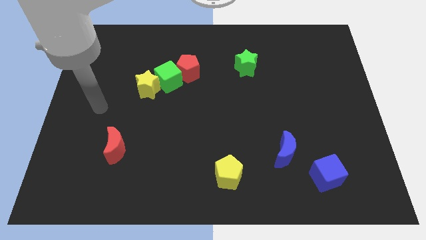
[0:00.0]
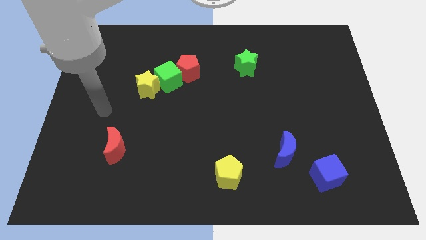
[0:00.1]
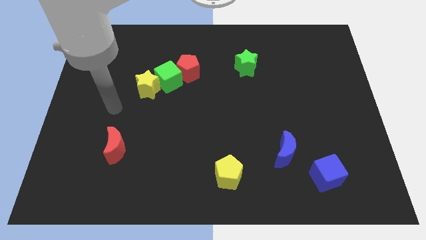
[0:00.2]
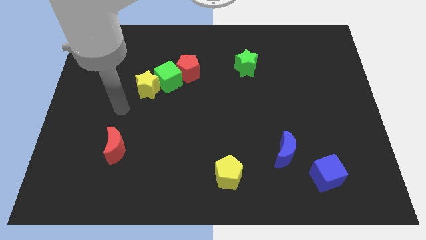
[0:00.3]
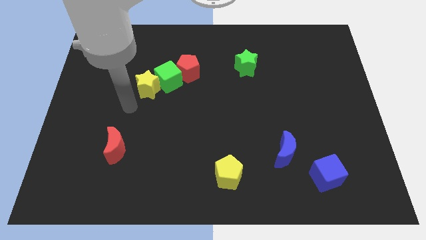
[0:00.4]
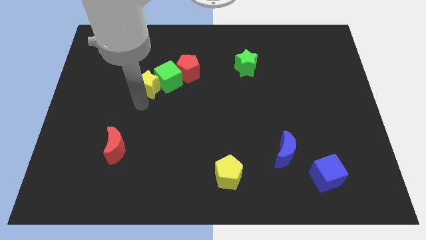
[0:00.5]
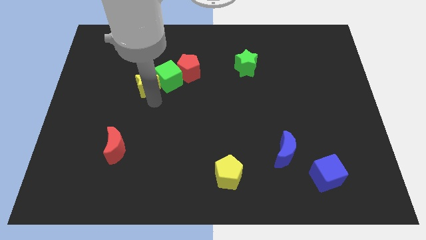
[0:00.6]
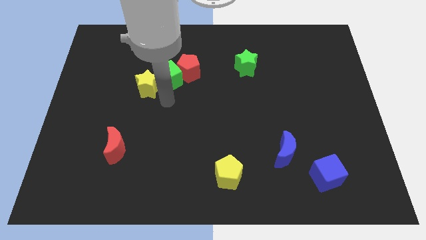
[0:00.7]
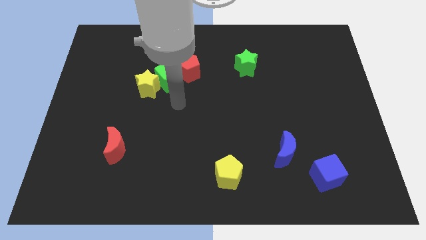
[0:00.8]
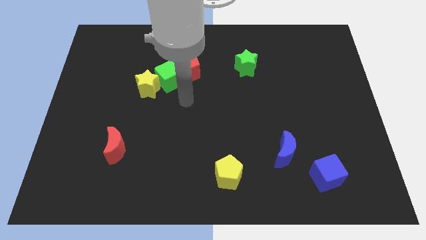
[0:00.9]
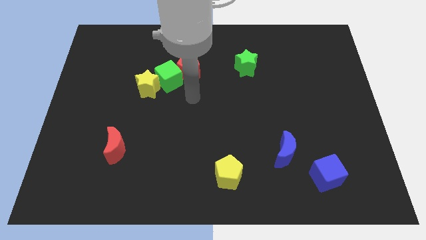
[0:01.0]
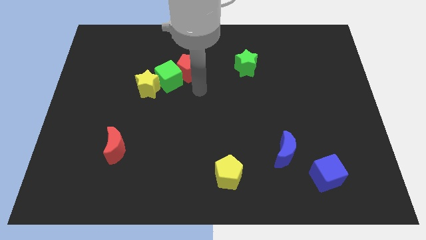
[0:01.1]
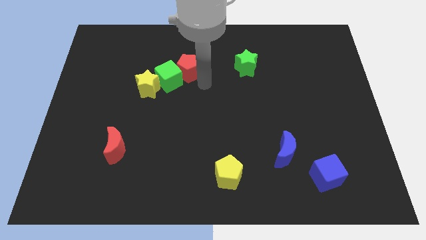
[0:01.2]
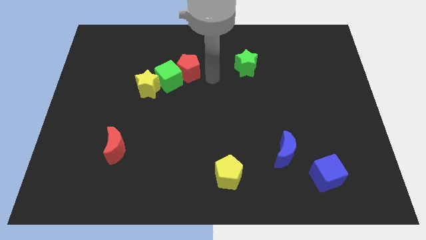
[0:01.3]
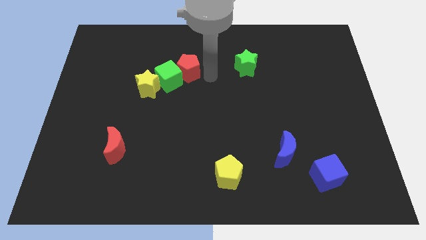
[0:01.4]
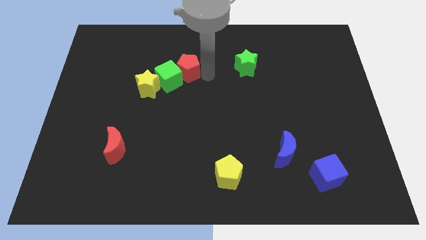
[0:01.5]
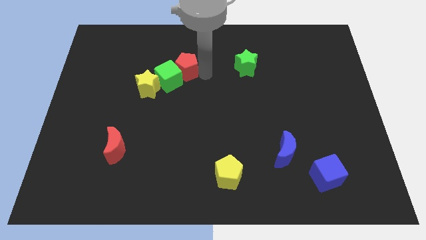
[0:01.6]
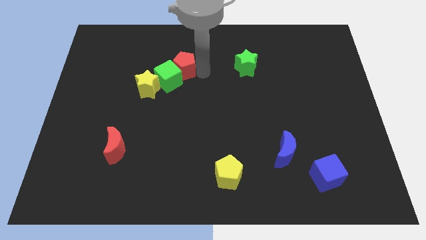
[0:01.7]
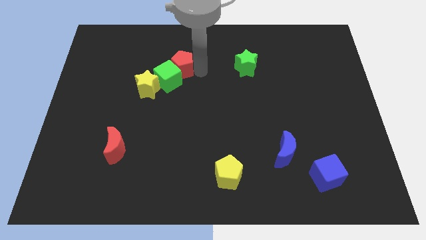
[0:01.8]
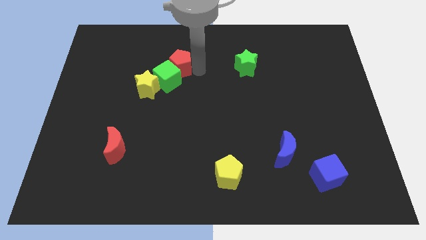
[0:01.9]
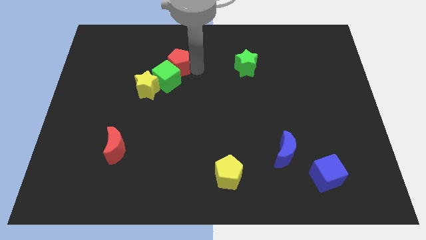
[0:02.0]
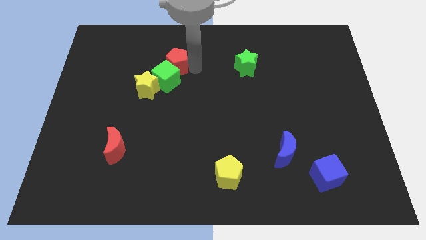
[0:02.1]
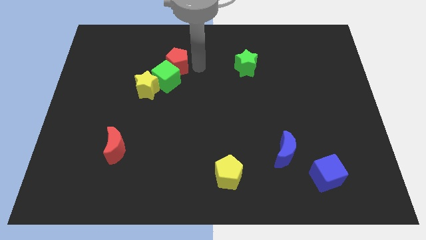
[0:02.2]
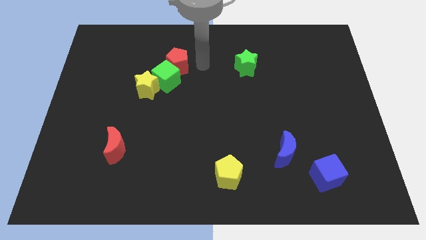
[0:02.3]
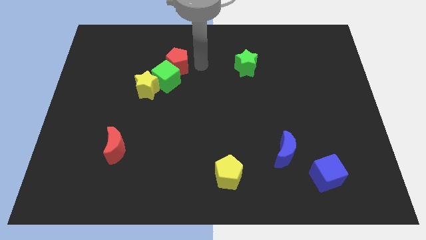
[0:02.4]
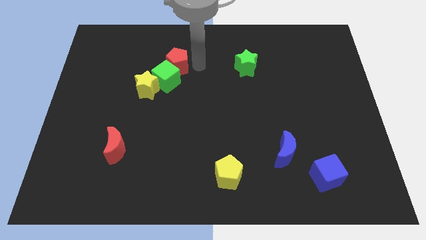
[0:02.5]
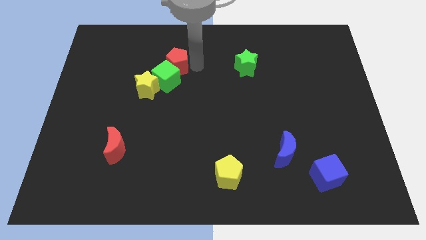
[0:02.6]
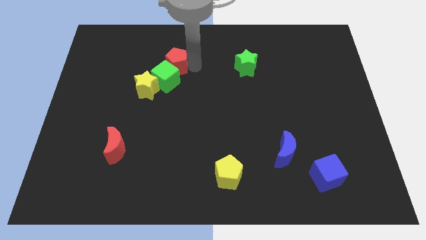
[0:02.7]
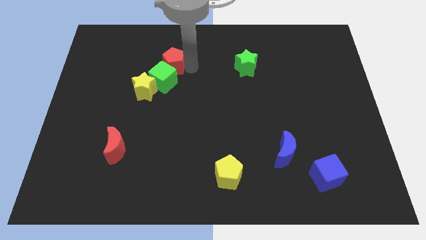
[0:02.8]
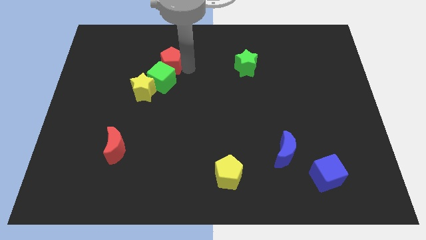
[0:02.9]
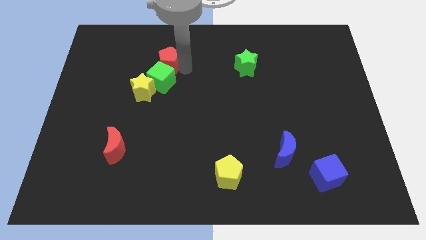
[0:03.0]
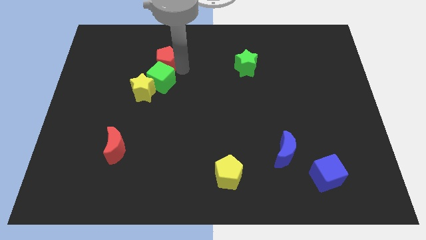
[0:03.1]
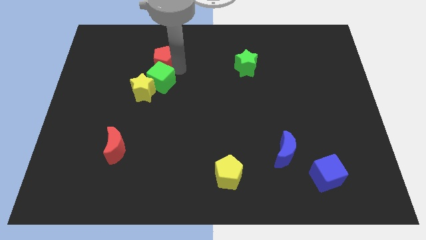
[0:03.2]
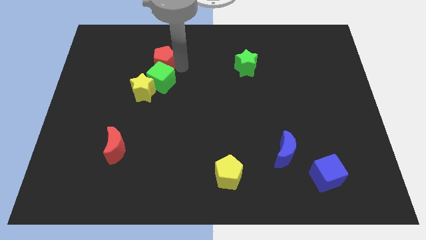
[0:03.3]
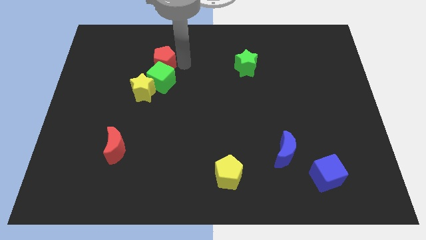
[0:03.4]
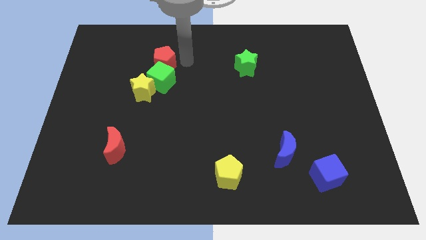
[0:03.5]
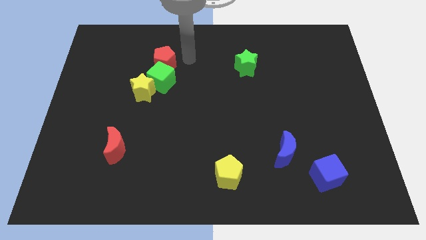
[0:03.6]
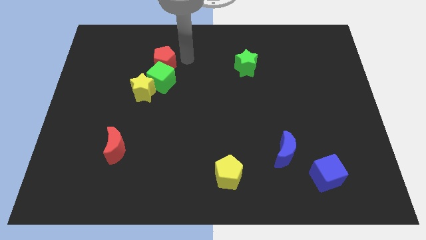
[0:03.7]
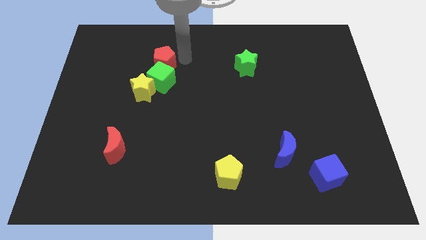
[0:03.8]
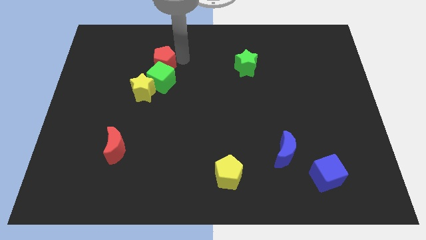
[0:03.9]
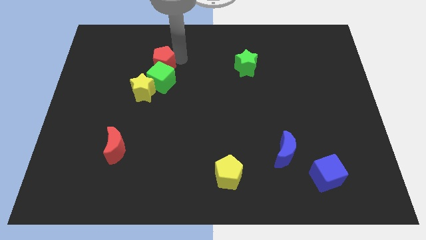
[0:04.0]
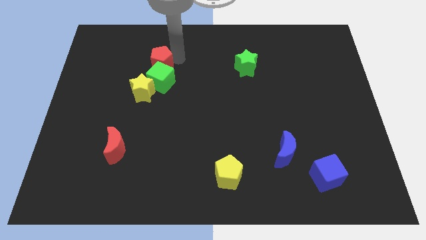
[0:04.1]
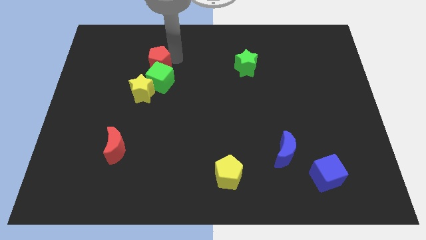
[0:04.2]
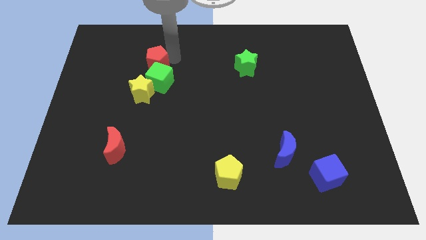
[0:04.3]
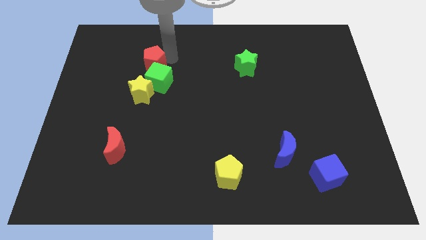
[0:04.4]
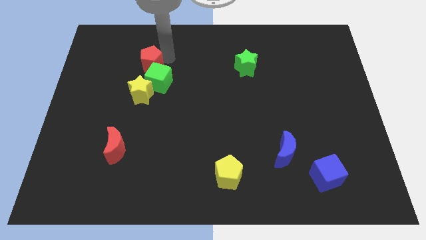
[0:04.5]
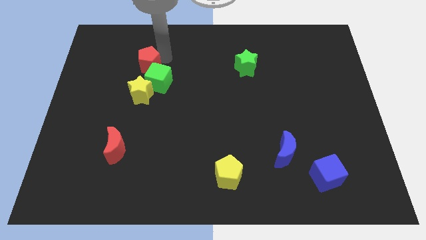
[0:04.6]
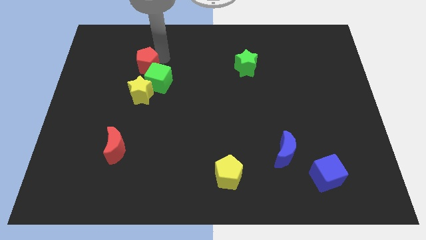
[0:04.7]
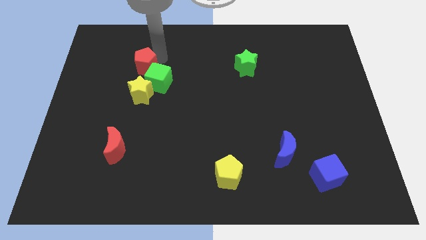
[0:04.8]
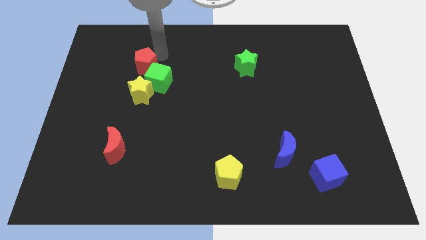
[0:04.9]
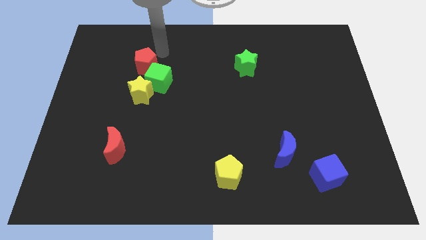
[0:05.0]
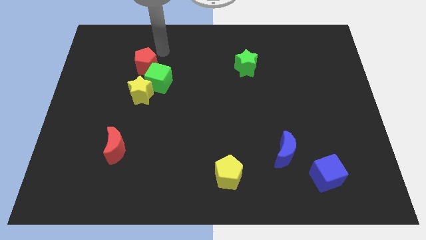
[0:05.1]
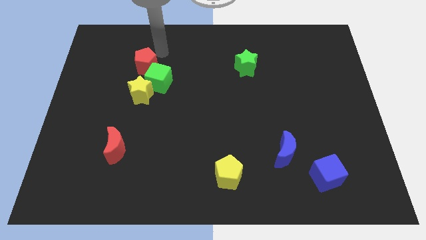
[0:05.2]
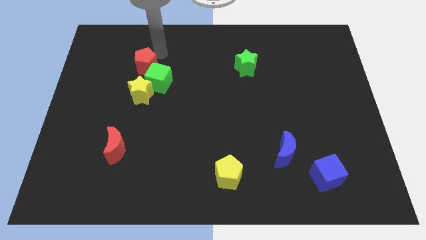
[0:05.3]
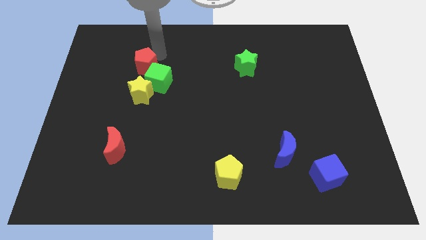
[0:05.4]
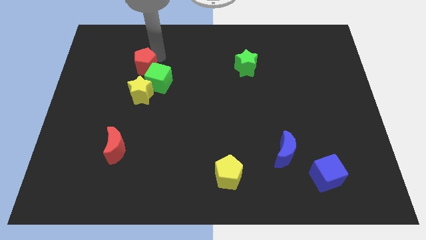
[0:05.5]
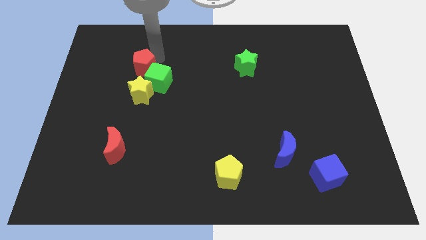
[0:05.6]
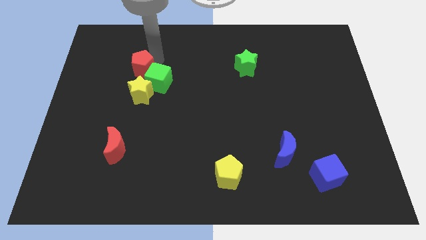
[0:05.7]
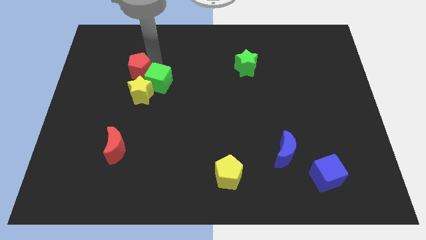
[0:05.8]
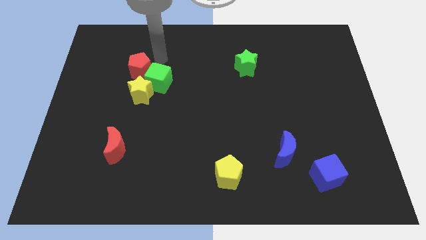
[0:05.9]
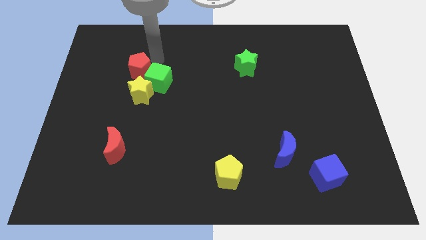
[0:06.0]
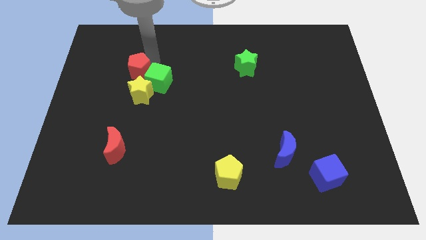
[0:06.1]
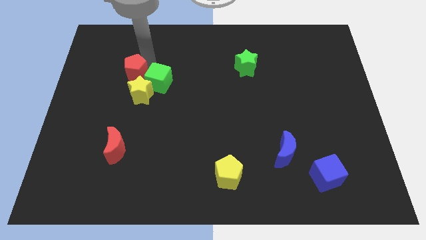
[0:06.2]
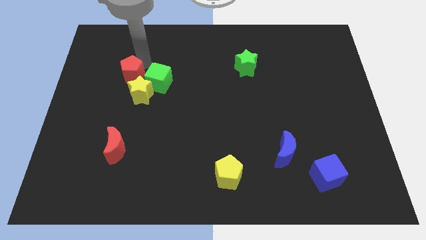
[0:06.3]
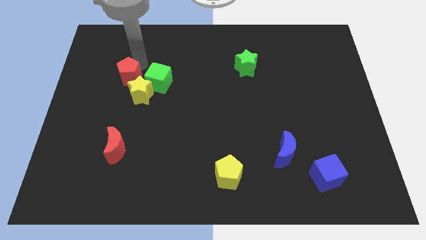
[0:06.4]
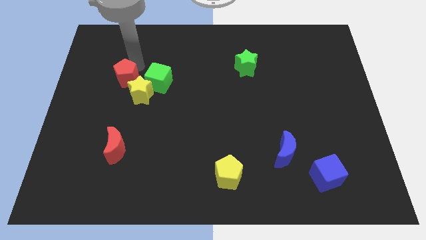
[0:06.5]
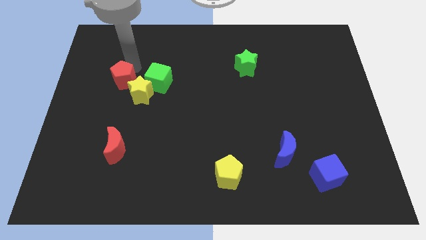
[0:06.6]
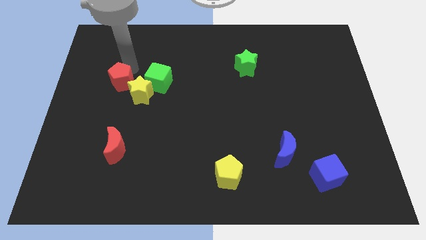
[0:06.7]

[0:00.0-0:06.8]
move the red pentagon just left of the yellow star

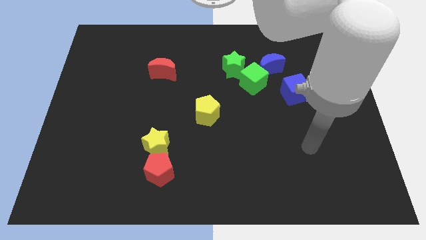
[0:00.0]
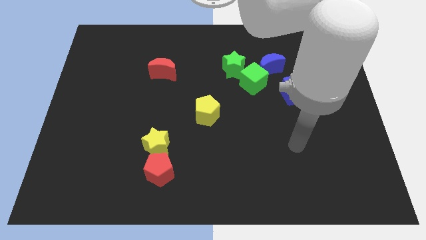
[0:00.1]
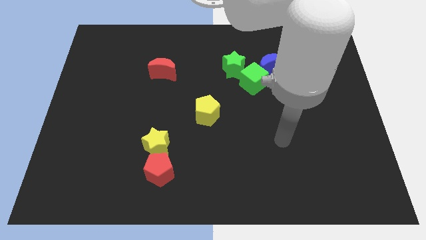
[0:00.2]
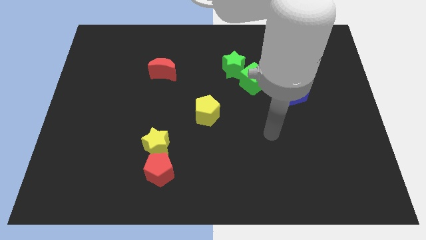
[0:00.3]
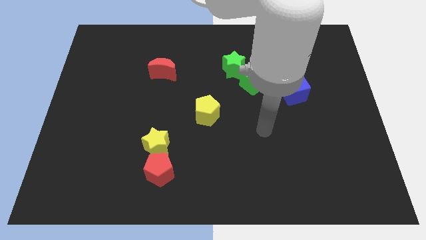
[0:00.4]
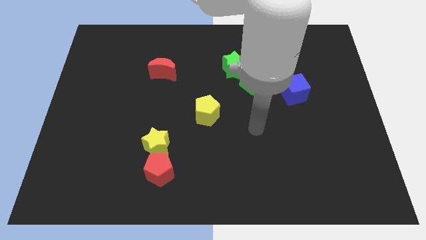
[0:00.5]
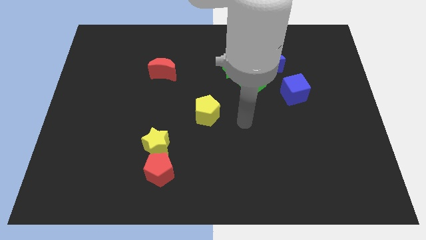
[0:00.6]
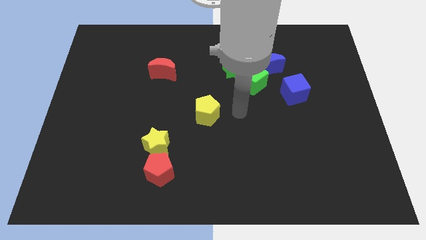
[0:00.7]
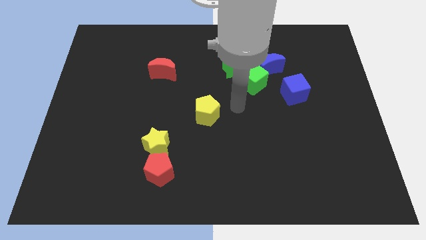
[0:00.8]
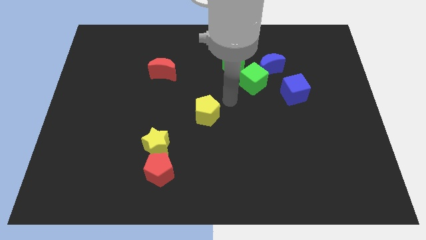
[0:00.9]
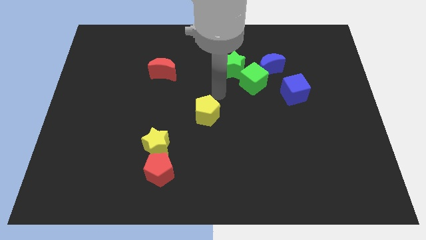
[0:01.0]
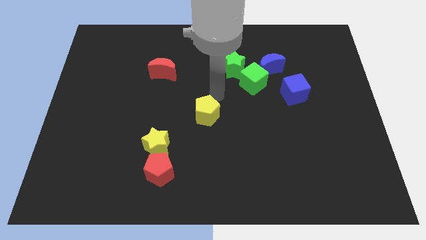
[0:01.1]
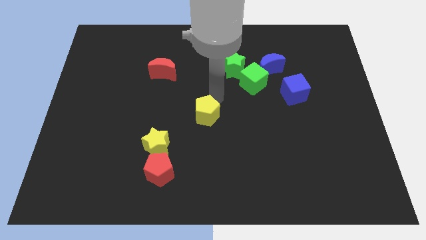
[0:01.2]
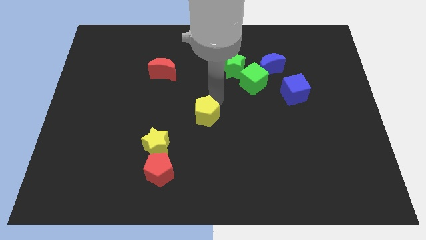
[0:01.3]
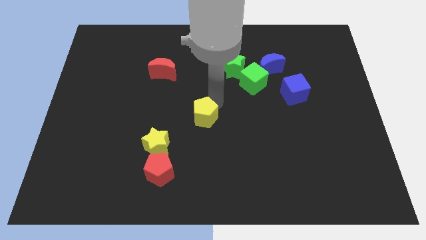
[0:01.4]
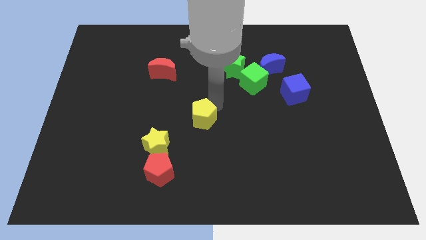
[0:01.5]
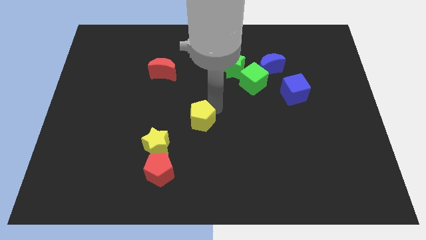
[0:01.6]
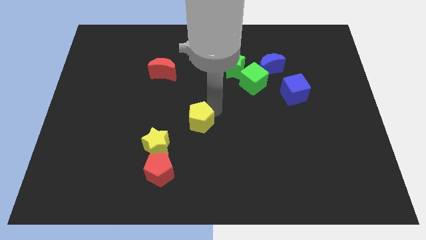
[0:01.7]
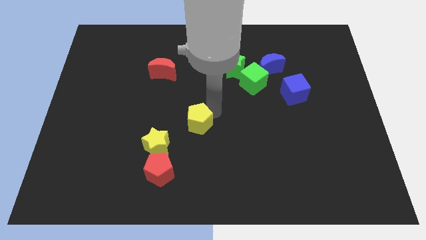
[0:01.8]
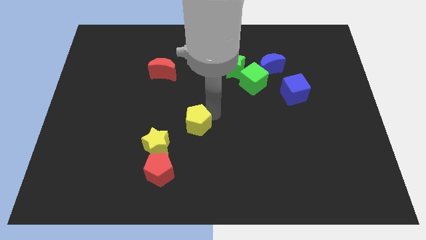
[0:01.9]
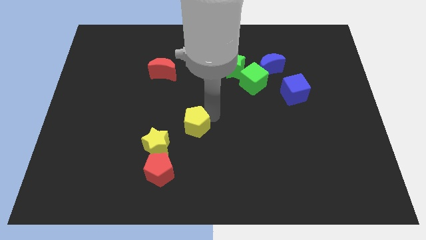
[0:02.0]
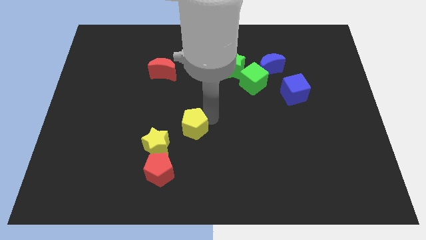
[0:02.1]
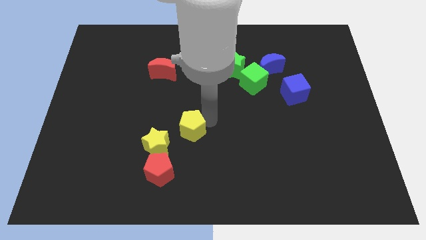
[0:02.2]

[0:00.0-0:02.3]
slide the yellow pentagon to the top right side of the red pentagon
